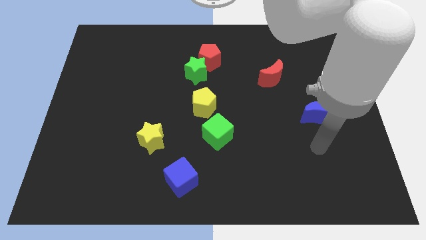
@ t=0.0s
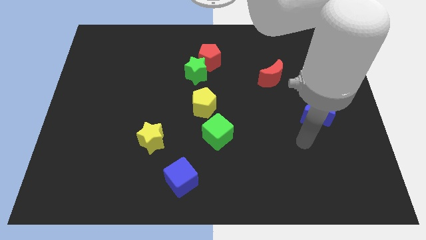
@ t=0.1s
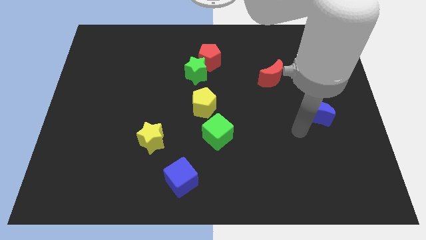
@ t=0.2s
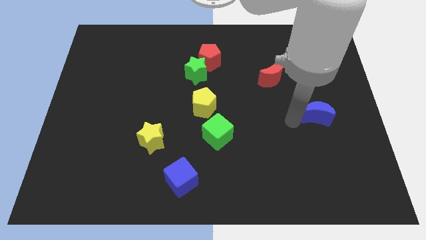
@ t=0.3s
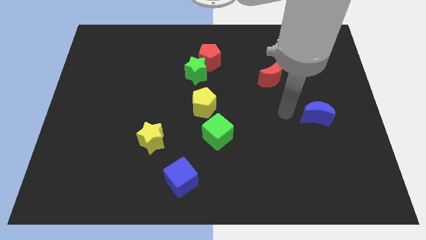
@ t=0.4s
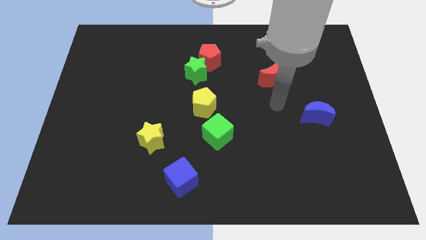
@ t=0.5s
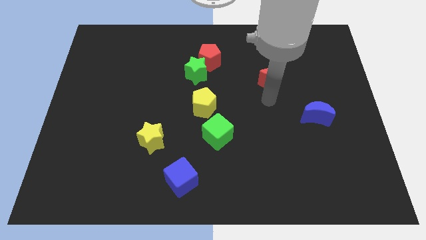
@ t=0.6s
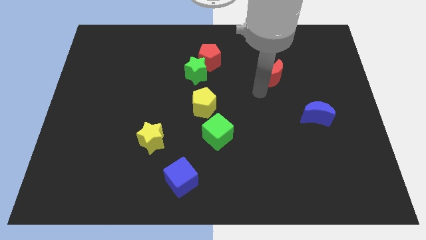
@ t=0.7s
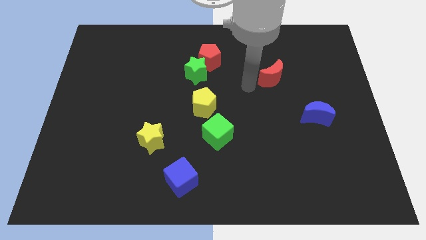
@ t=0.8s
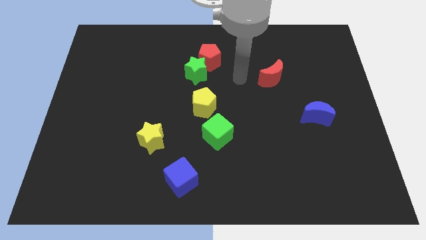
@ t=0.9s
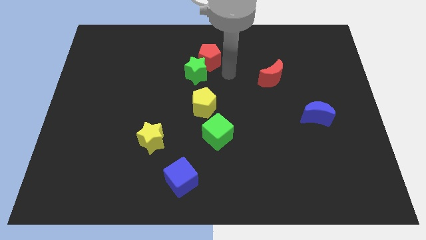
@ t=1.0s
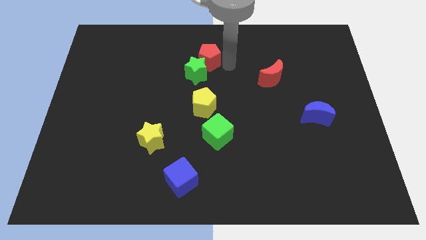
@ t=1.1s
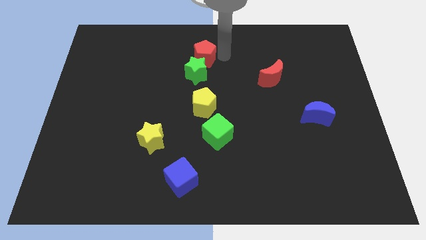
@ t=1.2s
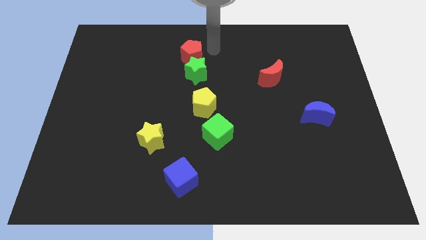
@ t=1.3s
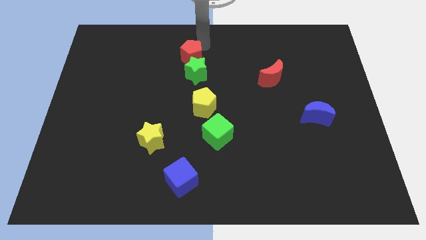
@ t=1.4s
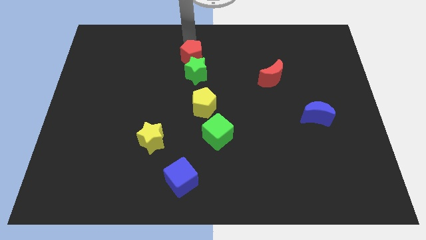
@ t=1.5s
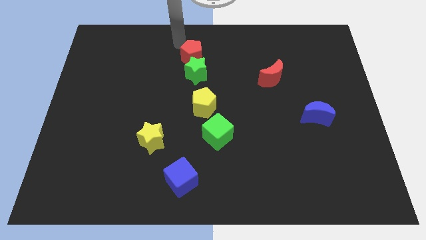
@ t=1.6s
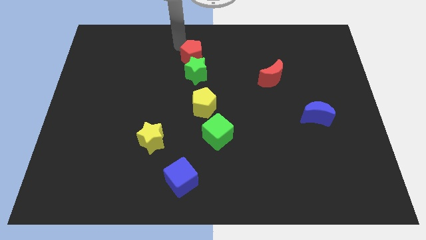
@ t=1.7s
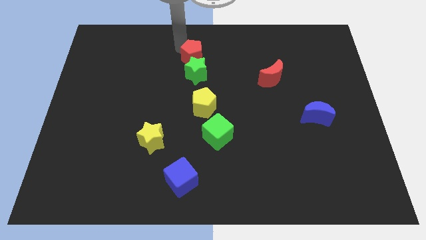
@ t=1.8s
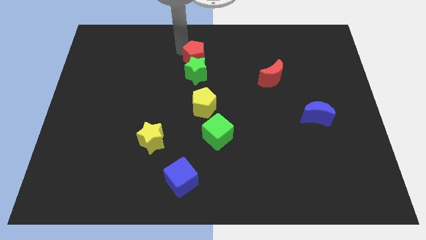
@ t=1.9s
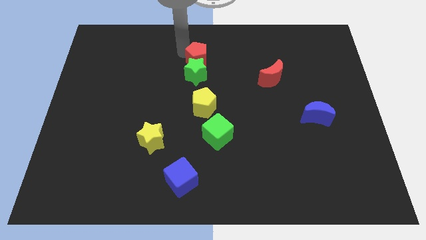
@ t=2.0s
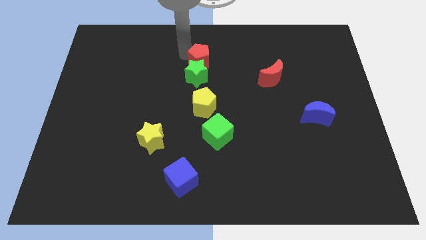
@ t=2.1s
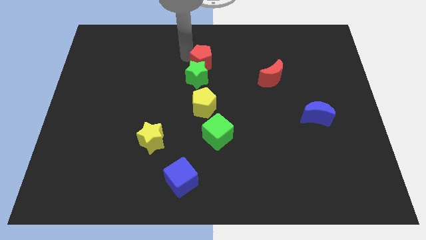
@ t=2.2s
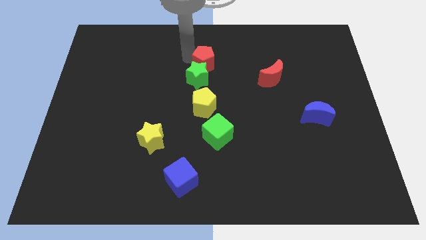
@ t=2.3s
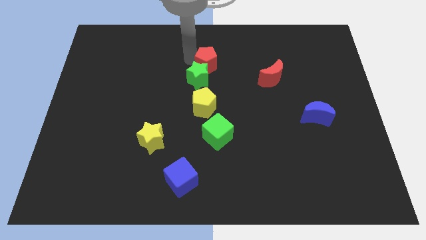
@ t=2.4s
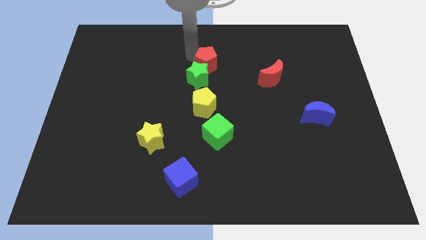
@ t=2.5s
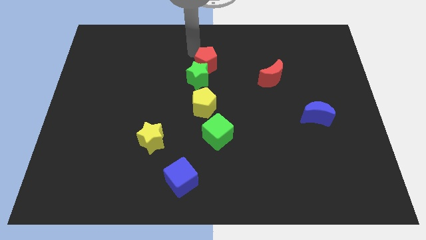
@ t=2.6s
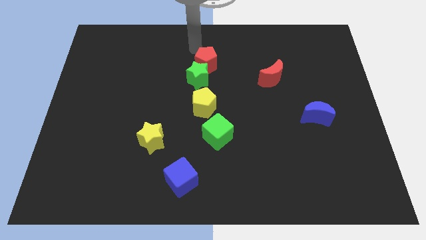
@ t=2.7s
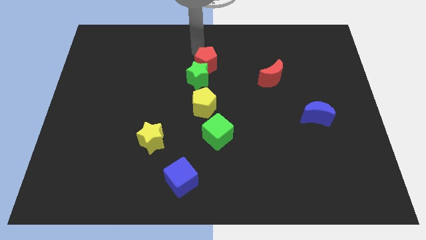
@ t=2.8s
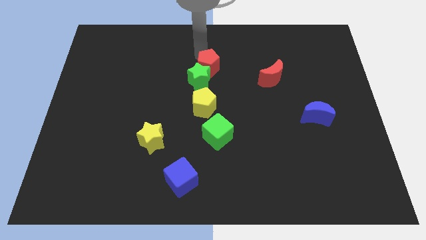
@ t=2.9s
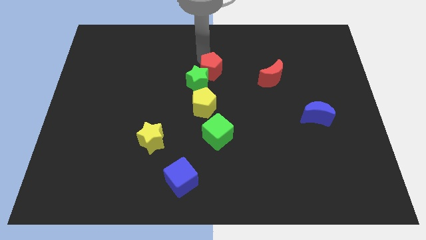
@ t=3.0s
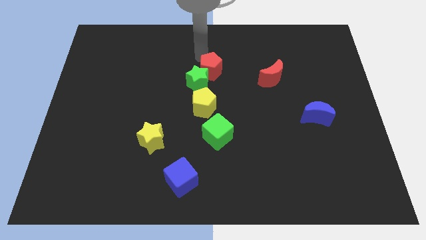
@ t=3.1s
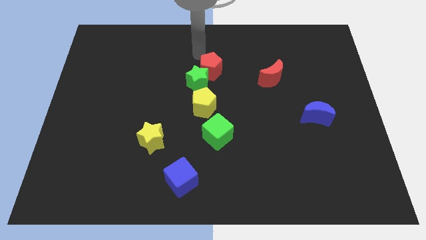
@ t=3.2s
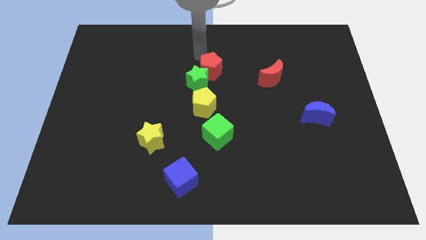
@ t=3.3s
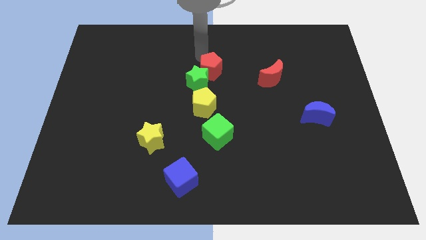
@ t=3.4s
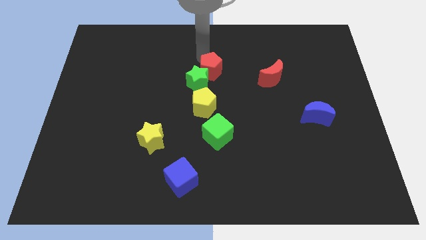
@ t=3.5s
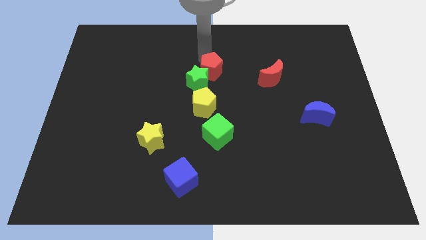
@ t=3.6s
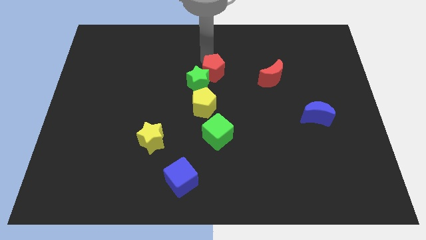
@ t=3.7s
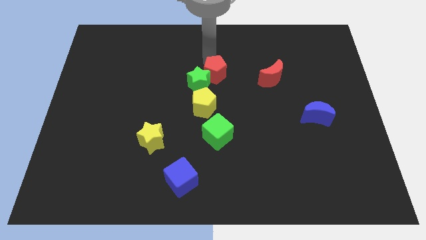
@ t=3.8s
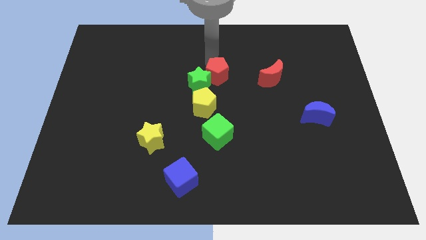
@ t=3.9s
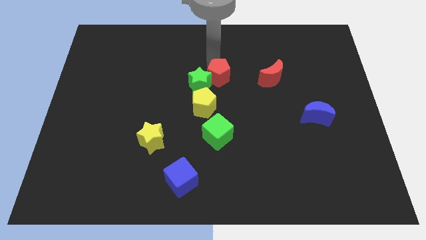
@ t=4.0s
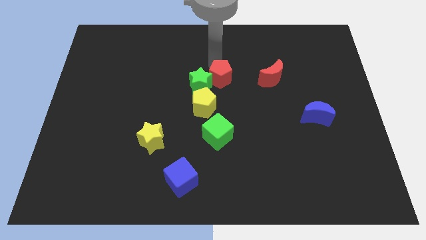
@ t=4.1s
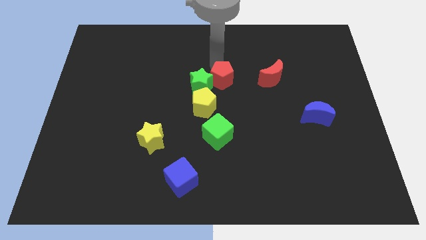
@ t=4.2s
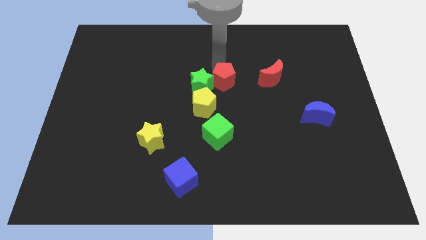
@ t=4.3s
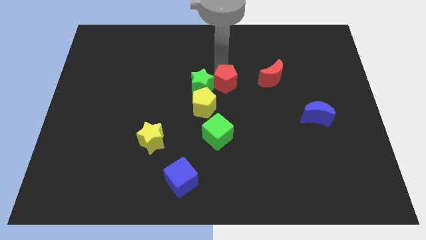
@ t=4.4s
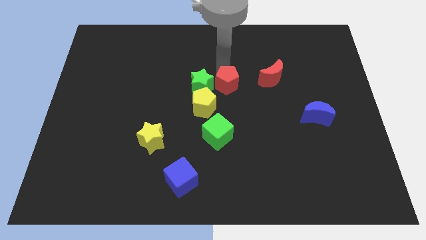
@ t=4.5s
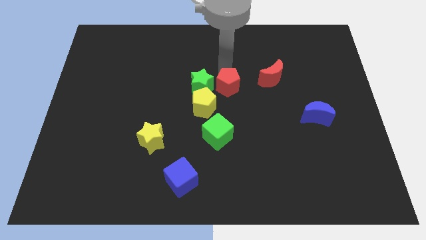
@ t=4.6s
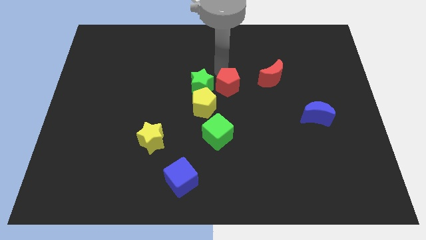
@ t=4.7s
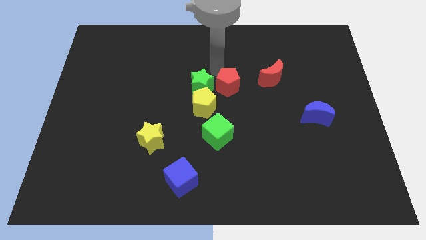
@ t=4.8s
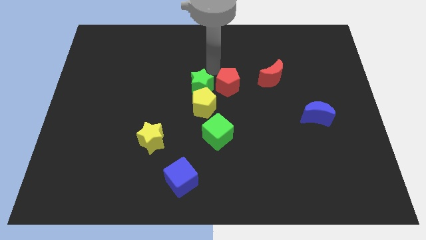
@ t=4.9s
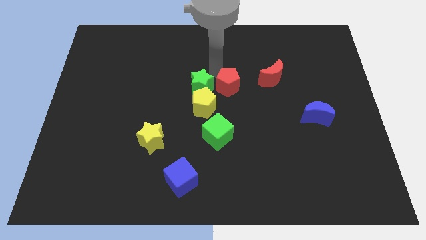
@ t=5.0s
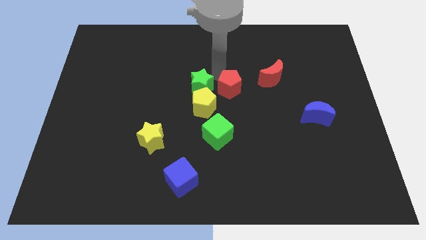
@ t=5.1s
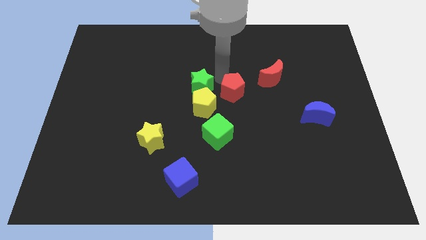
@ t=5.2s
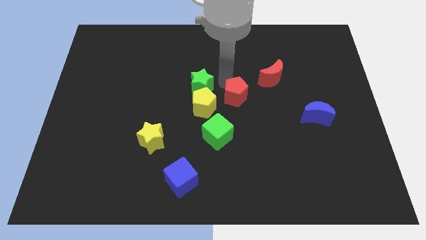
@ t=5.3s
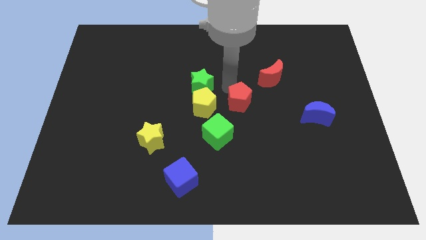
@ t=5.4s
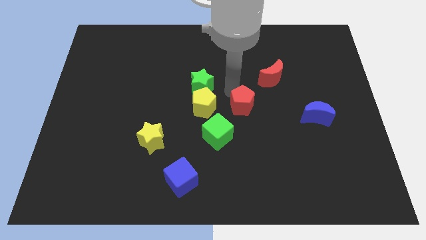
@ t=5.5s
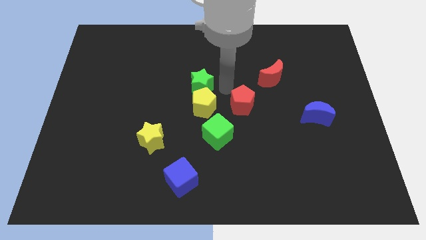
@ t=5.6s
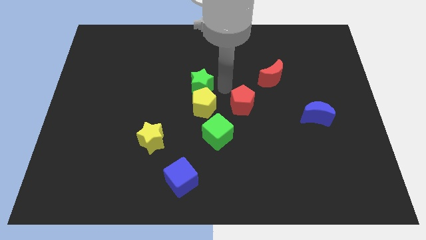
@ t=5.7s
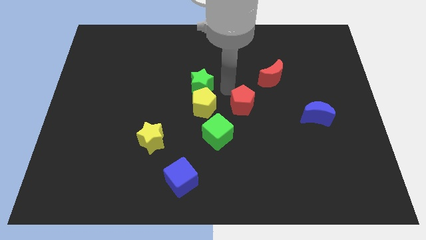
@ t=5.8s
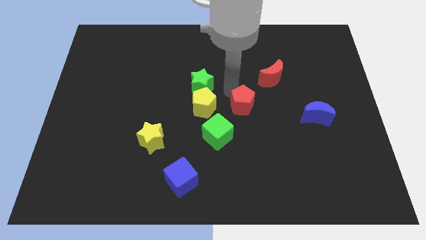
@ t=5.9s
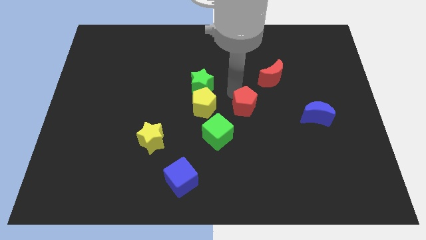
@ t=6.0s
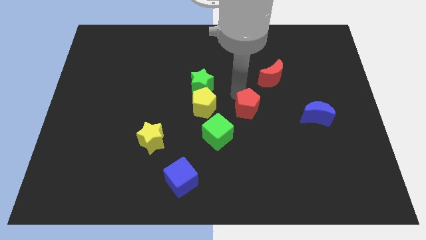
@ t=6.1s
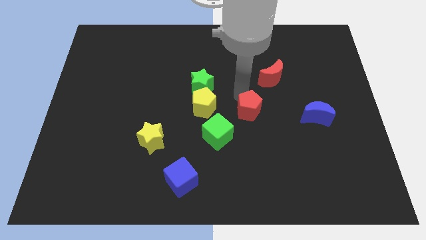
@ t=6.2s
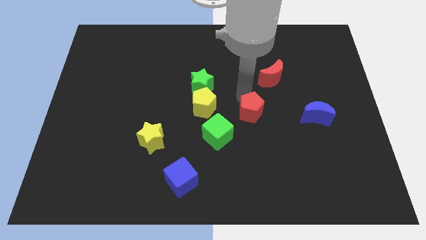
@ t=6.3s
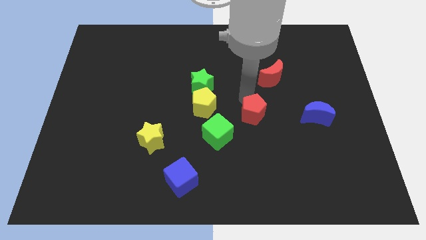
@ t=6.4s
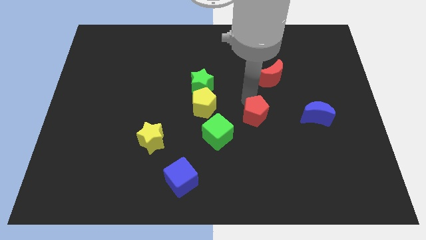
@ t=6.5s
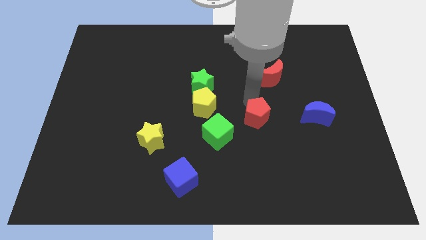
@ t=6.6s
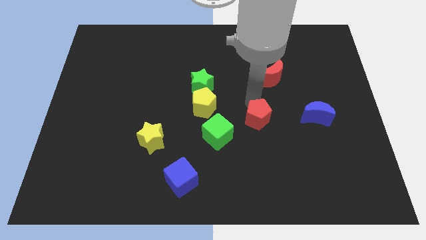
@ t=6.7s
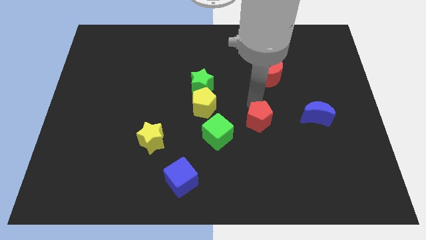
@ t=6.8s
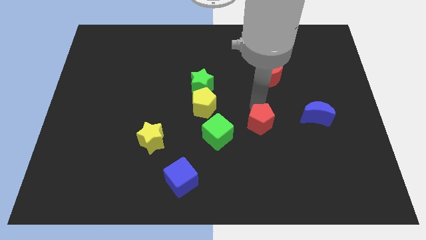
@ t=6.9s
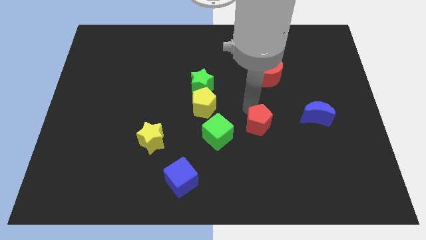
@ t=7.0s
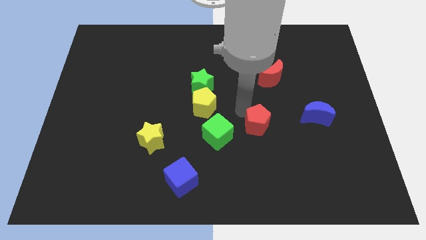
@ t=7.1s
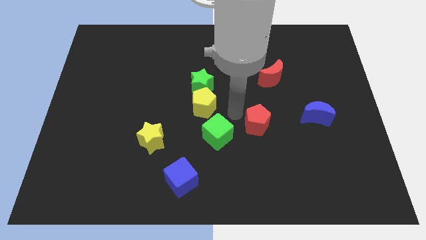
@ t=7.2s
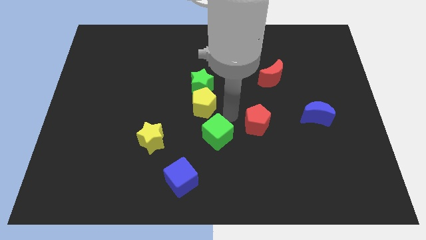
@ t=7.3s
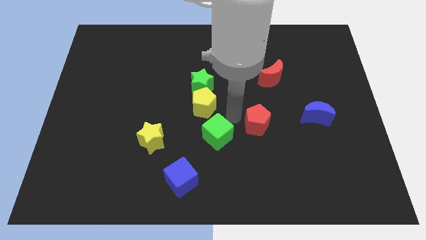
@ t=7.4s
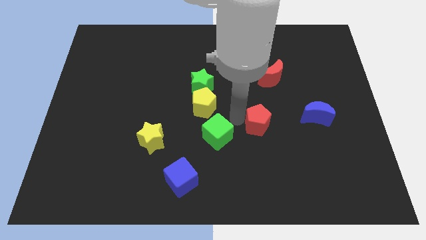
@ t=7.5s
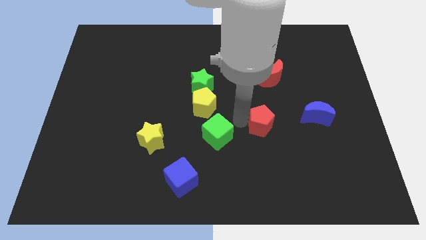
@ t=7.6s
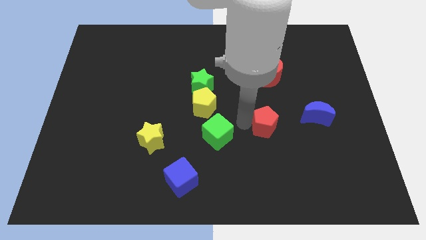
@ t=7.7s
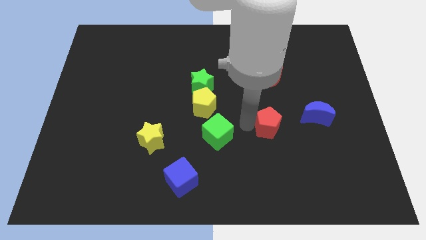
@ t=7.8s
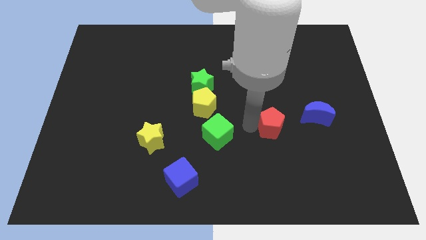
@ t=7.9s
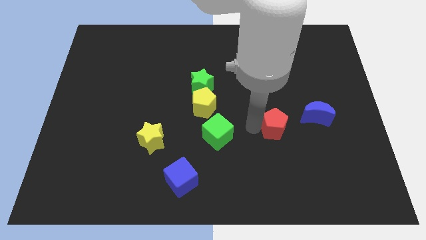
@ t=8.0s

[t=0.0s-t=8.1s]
move the red pentagon to the bottom left of the blue moon
